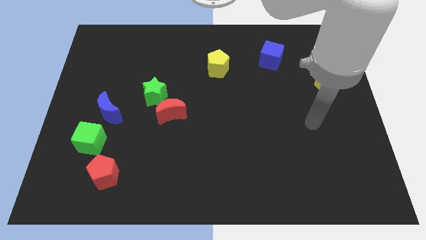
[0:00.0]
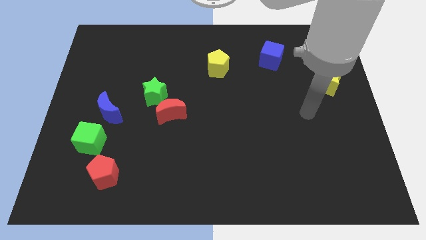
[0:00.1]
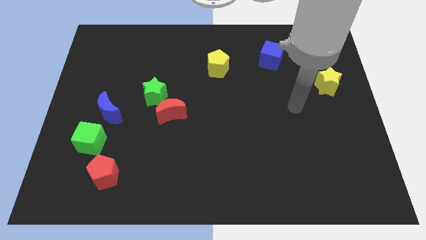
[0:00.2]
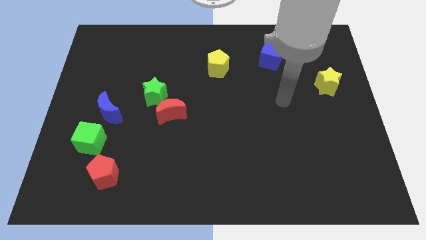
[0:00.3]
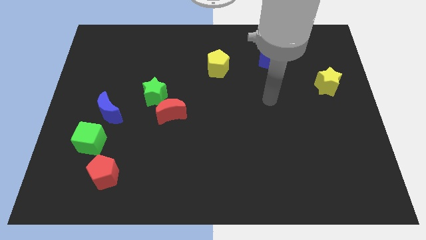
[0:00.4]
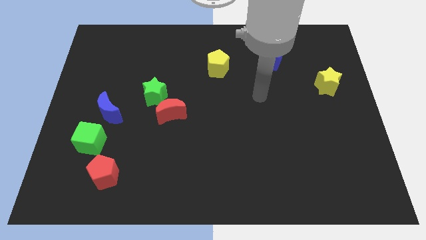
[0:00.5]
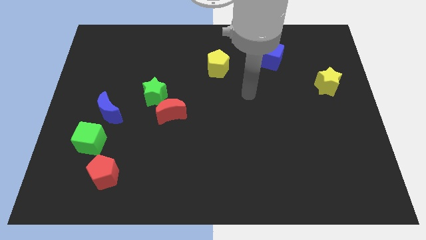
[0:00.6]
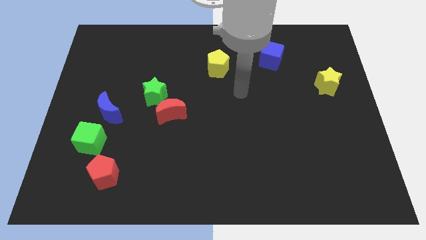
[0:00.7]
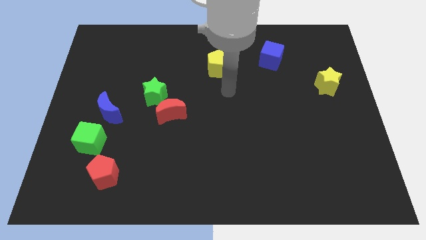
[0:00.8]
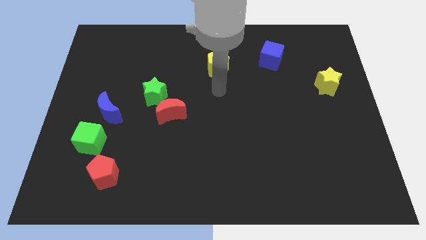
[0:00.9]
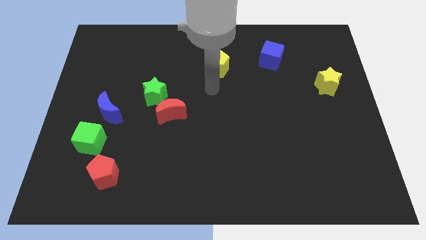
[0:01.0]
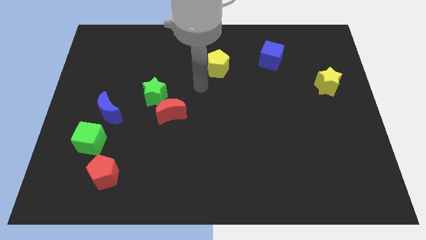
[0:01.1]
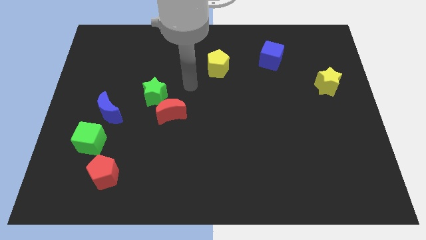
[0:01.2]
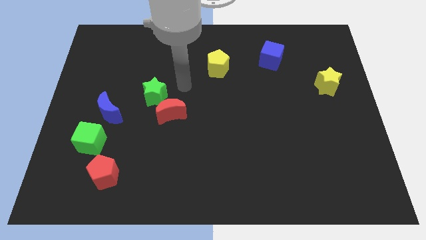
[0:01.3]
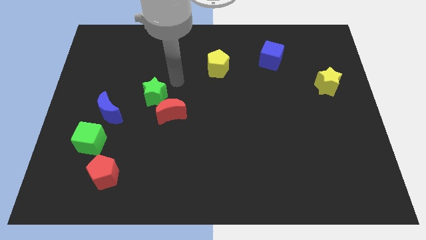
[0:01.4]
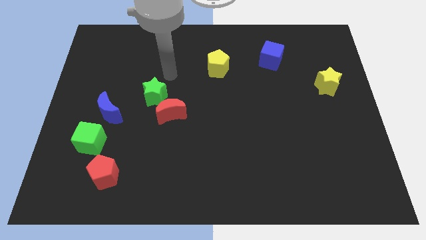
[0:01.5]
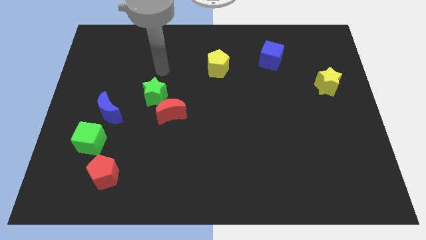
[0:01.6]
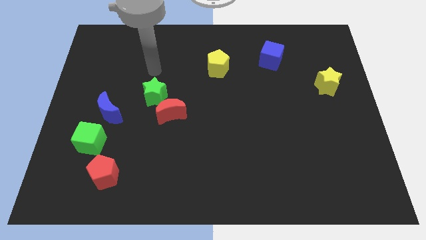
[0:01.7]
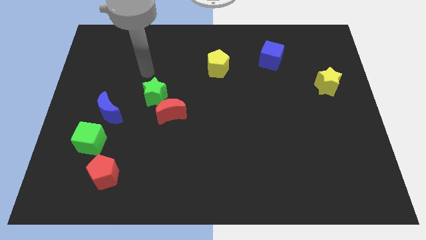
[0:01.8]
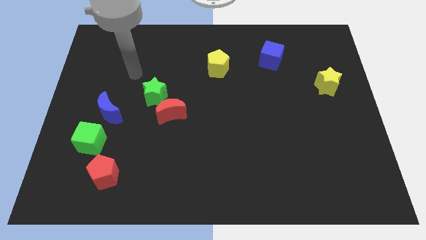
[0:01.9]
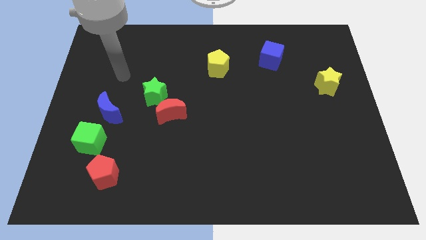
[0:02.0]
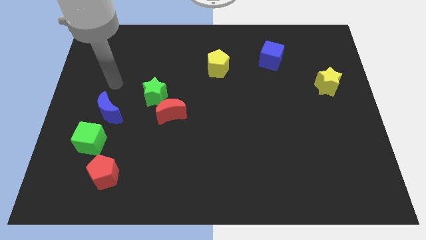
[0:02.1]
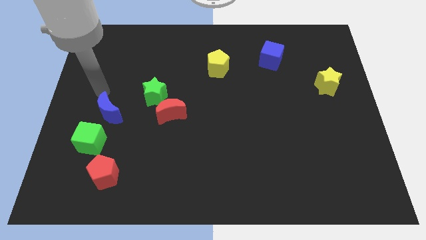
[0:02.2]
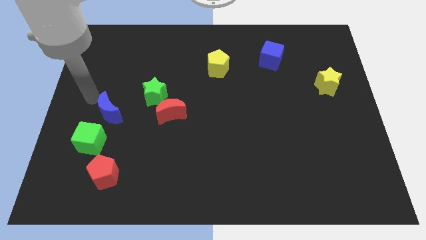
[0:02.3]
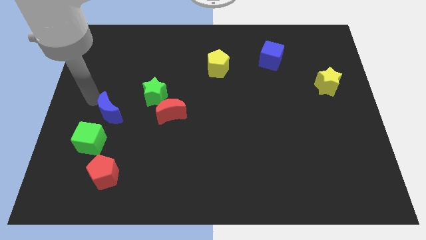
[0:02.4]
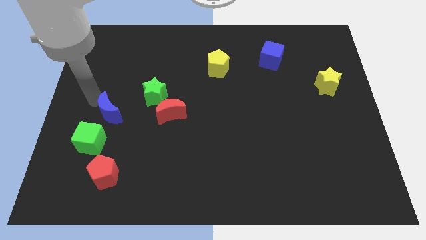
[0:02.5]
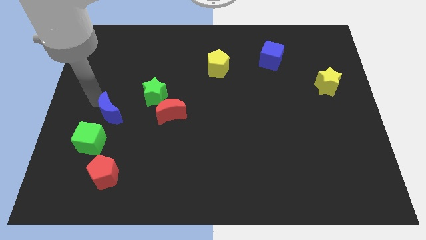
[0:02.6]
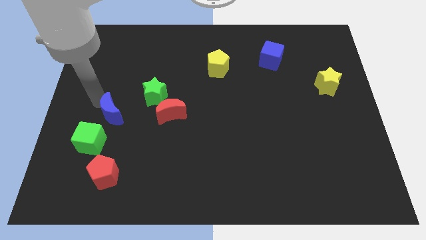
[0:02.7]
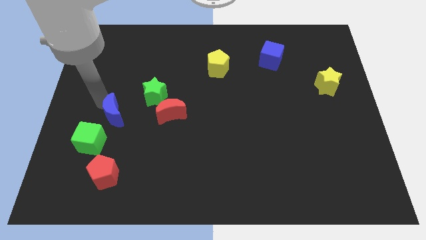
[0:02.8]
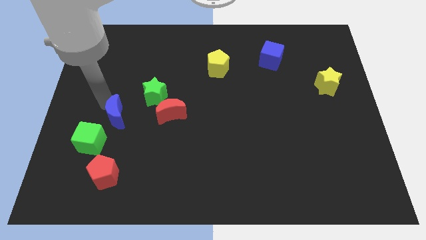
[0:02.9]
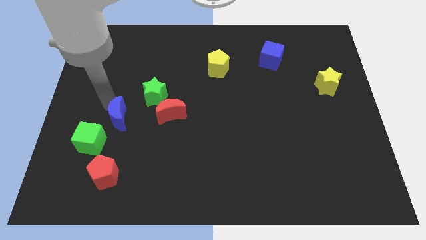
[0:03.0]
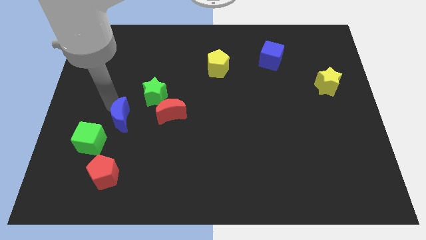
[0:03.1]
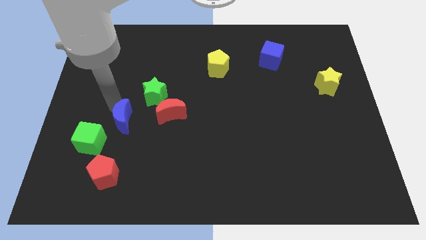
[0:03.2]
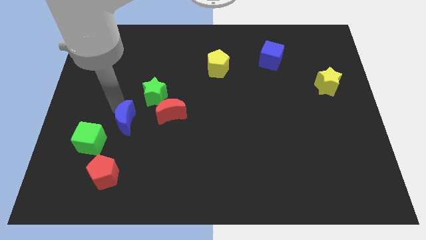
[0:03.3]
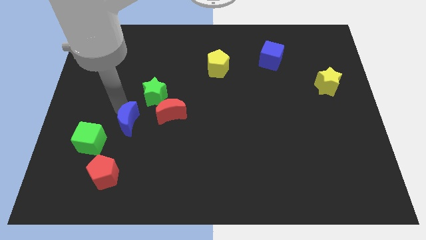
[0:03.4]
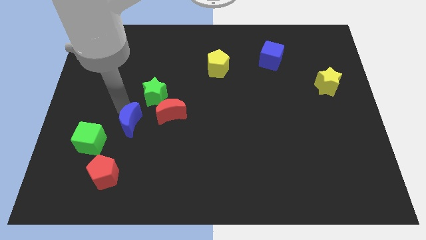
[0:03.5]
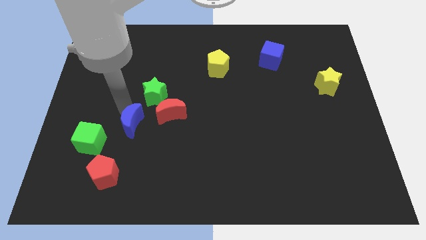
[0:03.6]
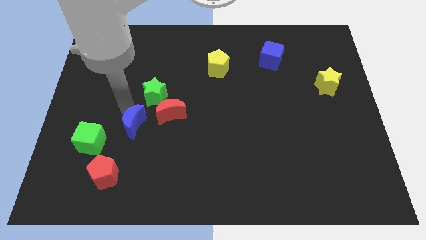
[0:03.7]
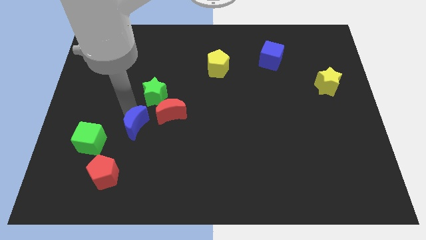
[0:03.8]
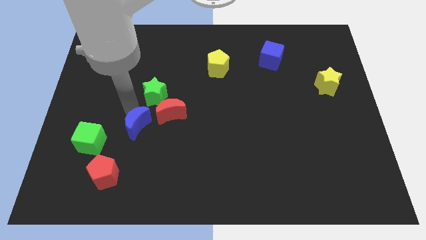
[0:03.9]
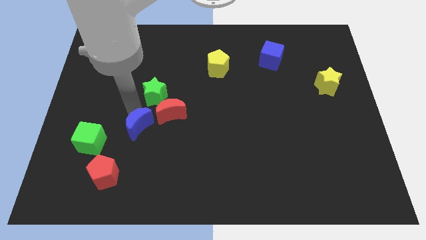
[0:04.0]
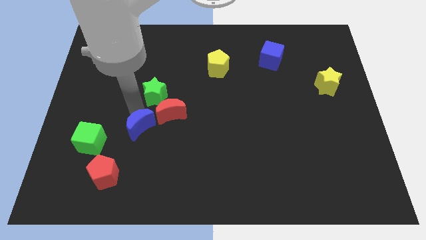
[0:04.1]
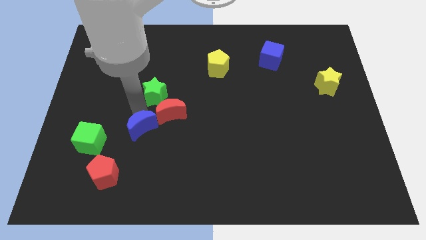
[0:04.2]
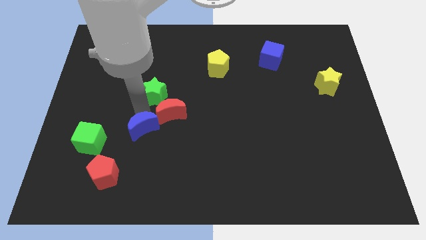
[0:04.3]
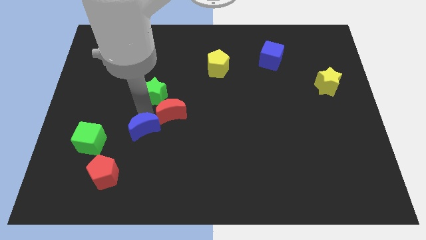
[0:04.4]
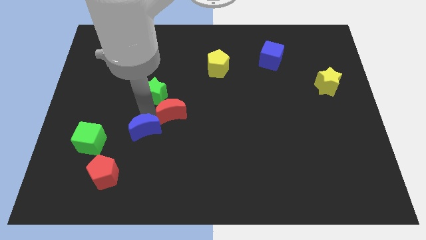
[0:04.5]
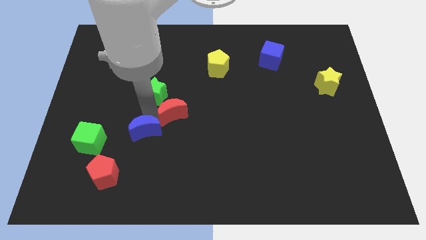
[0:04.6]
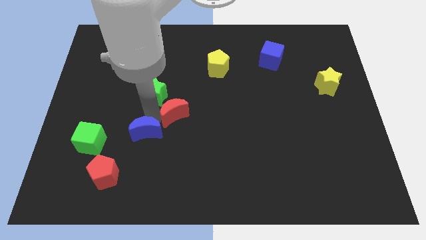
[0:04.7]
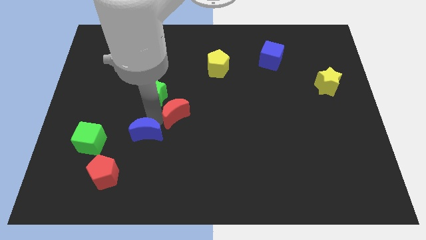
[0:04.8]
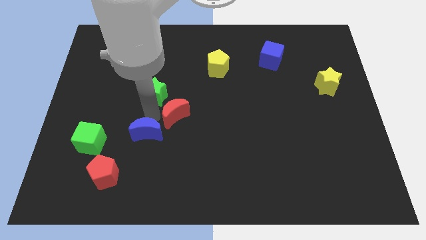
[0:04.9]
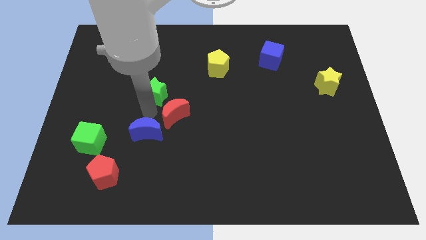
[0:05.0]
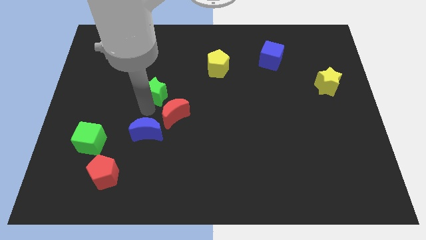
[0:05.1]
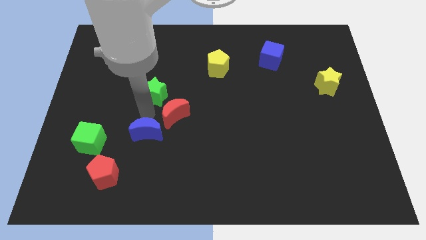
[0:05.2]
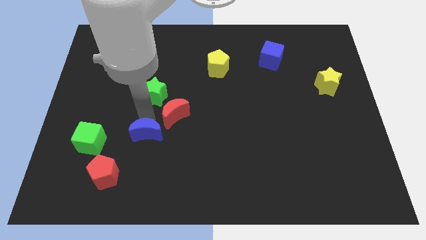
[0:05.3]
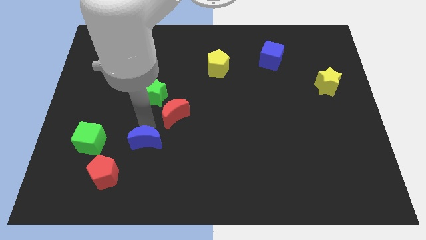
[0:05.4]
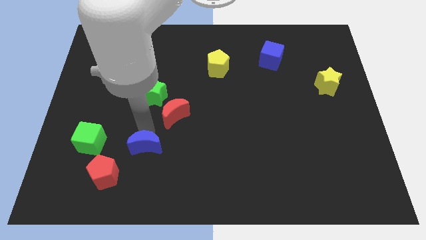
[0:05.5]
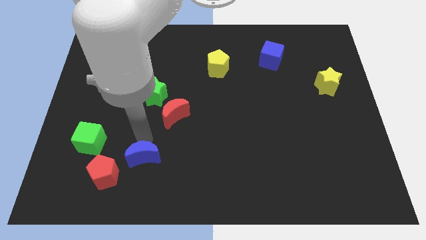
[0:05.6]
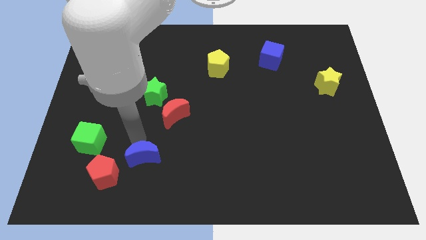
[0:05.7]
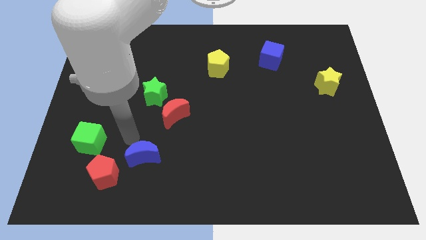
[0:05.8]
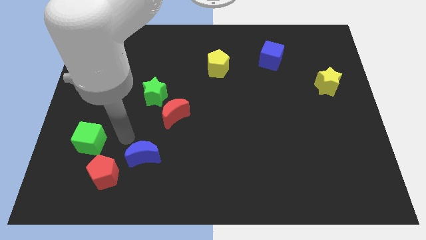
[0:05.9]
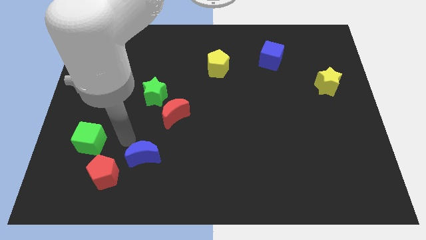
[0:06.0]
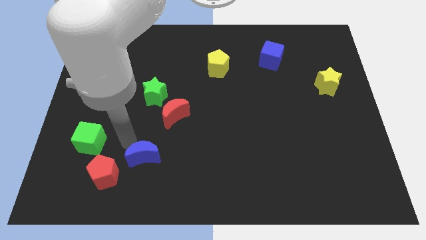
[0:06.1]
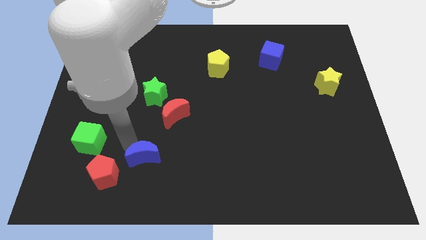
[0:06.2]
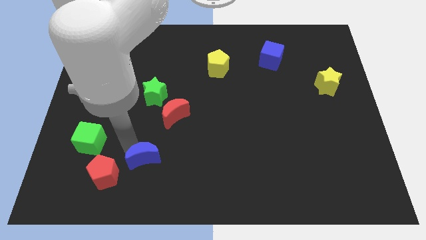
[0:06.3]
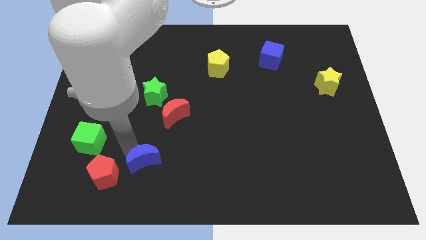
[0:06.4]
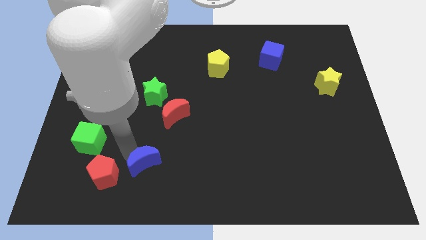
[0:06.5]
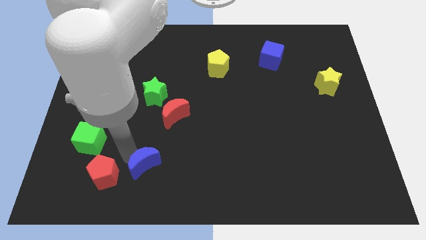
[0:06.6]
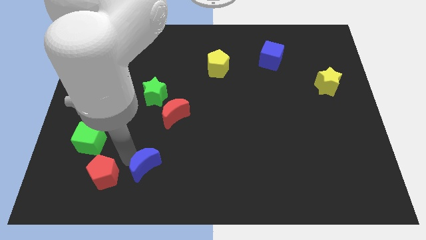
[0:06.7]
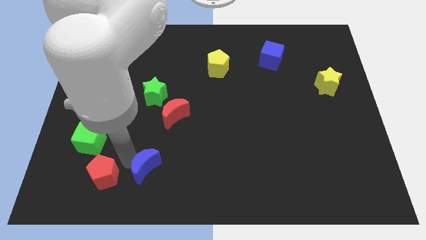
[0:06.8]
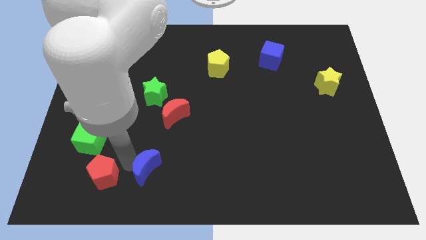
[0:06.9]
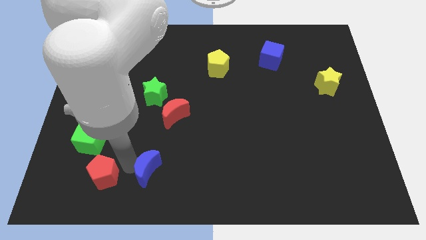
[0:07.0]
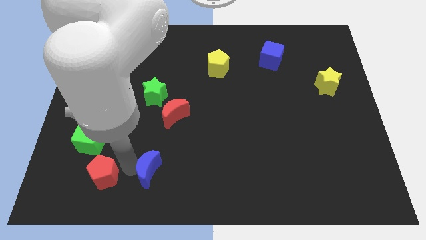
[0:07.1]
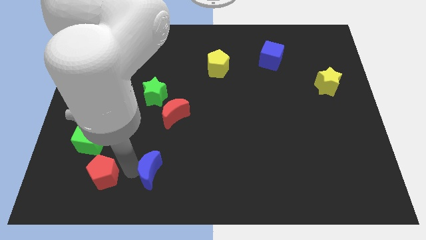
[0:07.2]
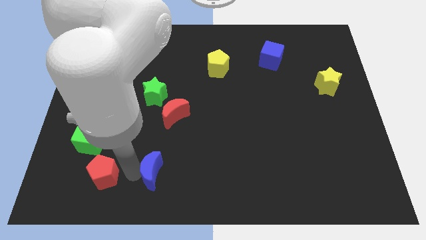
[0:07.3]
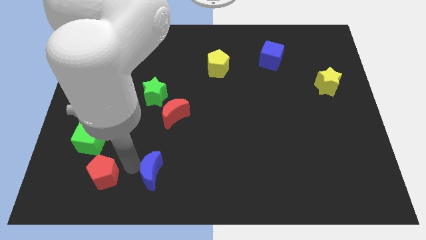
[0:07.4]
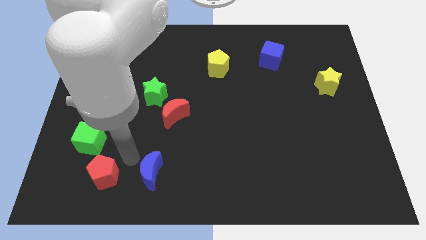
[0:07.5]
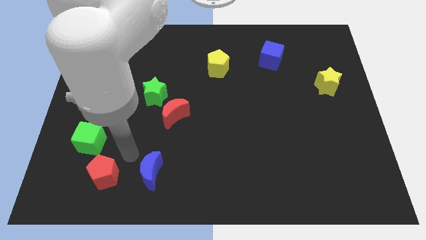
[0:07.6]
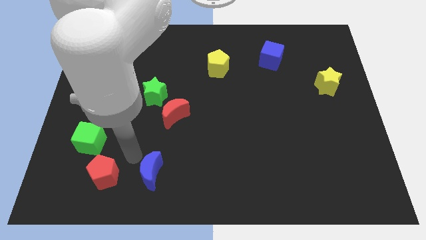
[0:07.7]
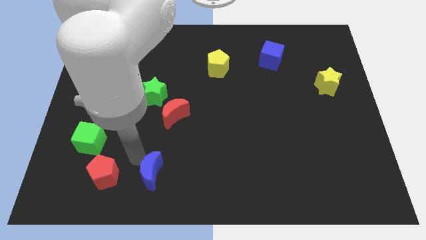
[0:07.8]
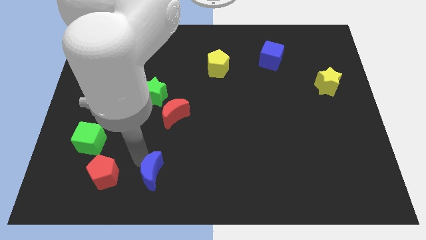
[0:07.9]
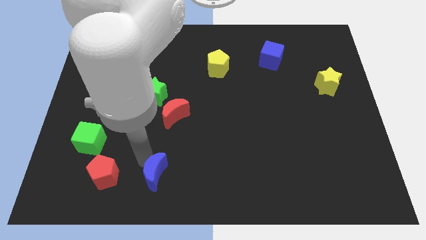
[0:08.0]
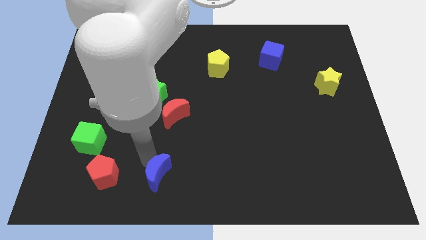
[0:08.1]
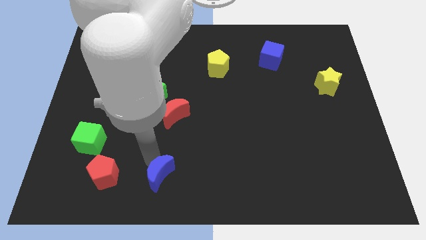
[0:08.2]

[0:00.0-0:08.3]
slide the blue moon to the bottom
